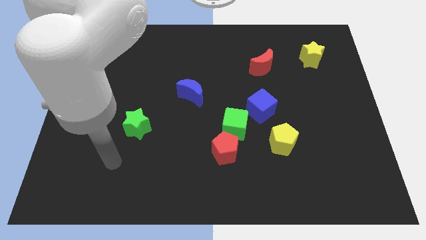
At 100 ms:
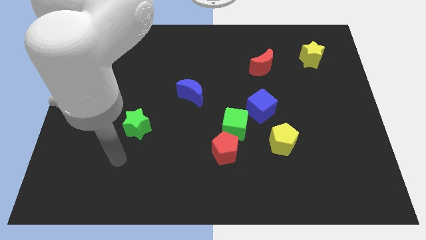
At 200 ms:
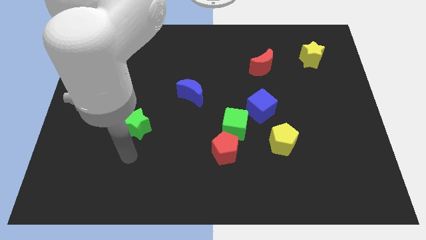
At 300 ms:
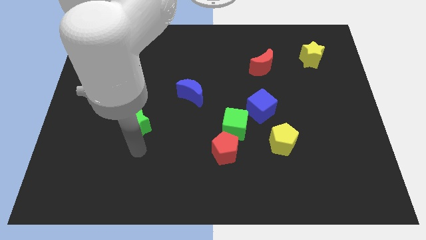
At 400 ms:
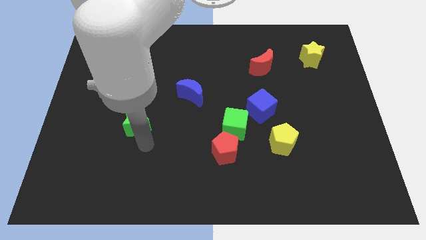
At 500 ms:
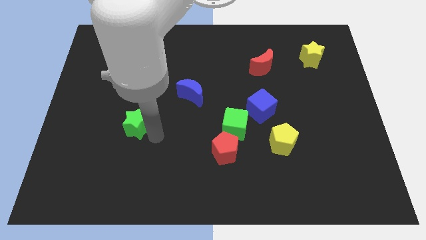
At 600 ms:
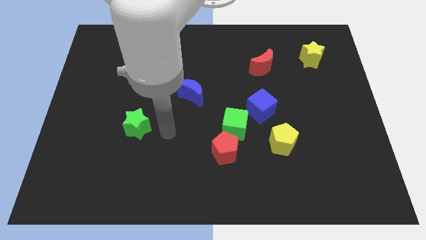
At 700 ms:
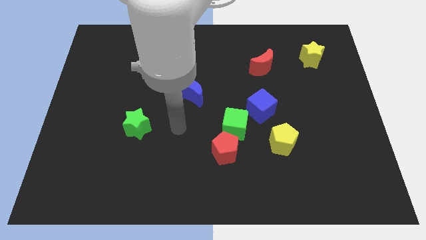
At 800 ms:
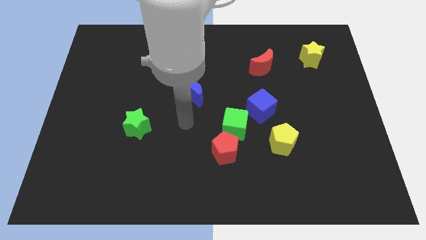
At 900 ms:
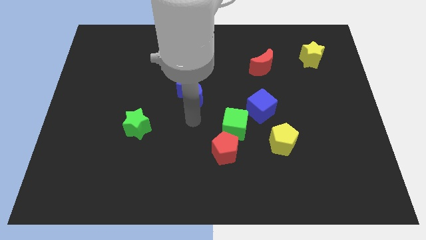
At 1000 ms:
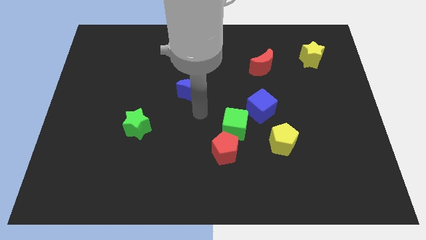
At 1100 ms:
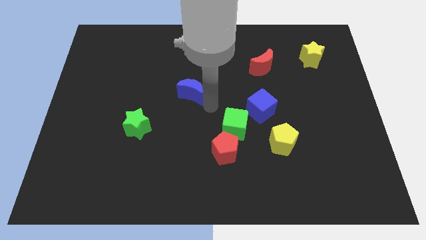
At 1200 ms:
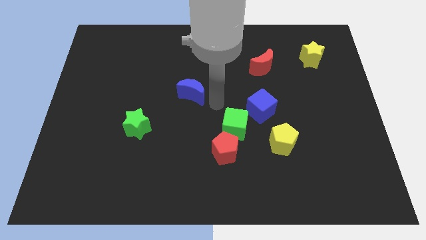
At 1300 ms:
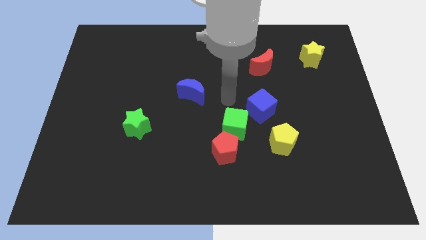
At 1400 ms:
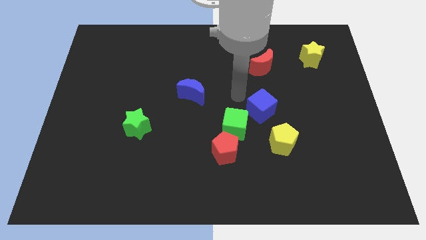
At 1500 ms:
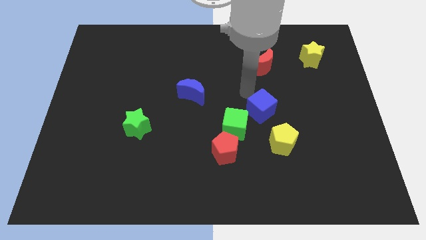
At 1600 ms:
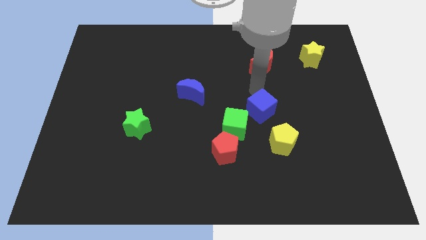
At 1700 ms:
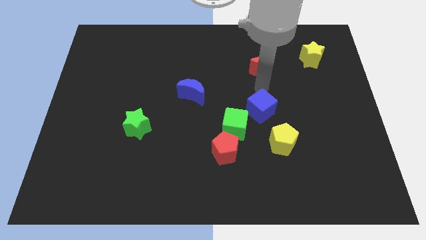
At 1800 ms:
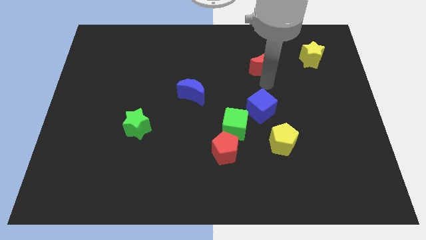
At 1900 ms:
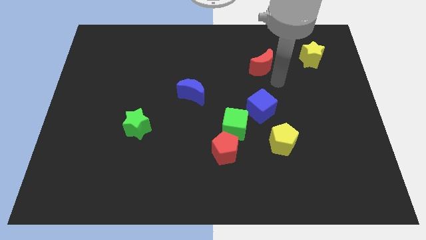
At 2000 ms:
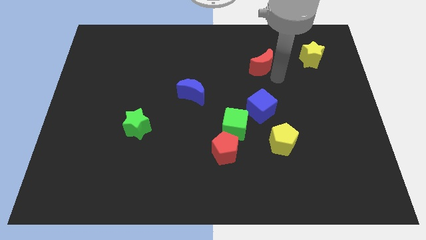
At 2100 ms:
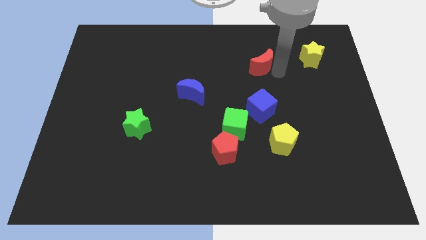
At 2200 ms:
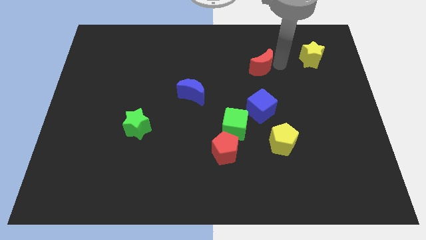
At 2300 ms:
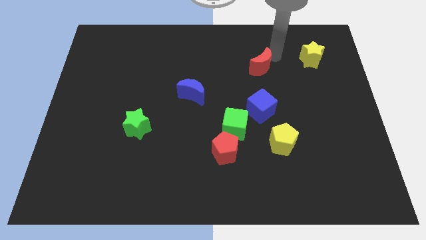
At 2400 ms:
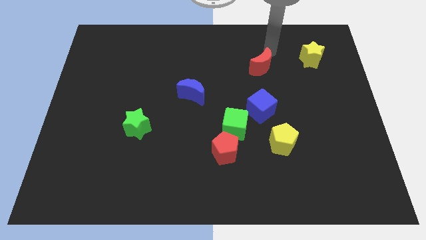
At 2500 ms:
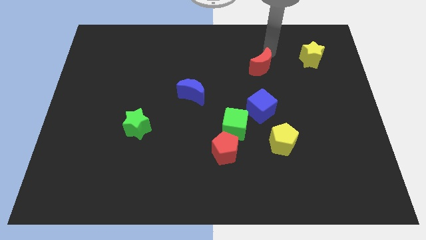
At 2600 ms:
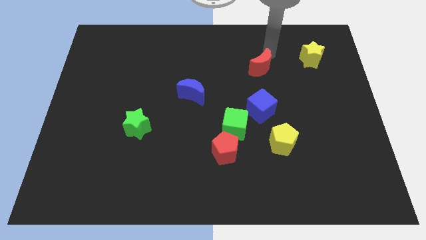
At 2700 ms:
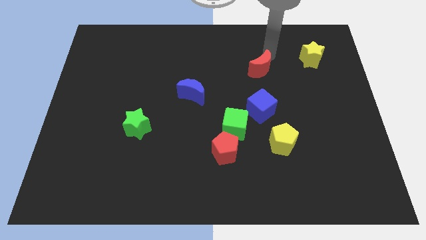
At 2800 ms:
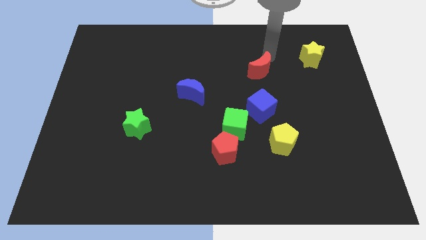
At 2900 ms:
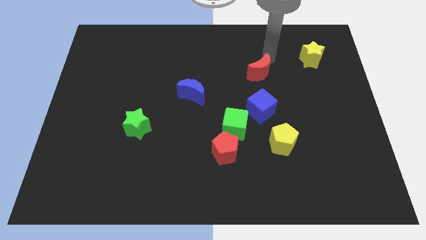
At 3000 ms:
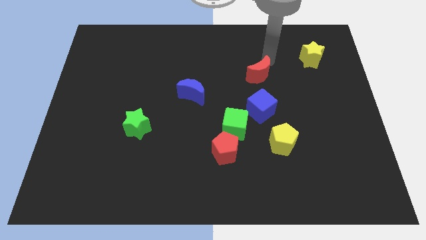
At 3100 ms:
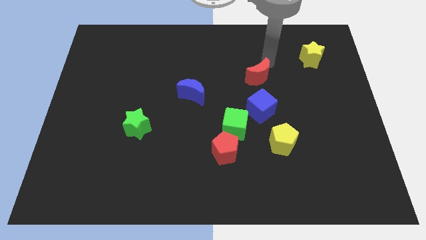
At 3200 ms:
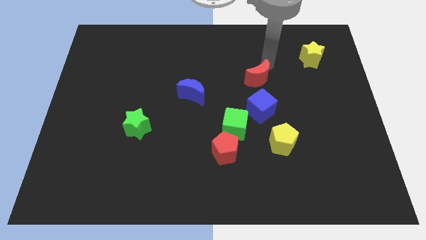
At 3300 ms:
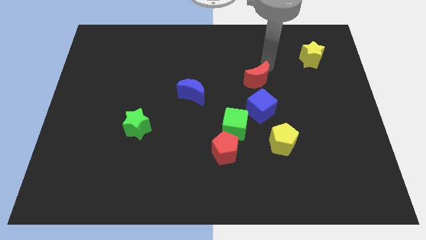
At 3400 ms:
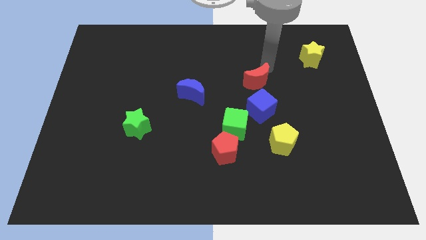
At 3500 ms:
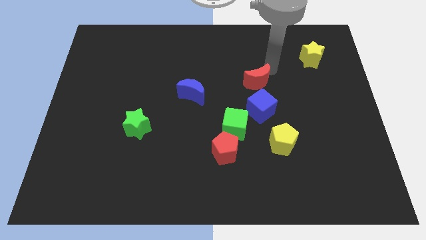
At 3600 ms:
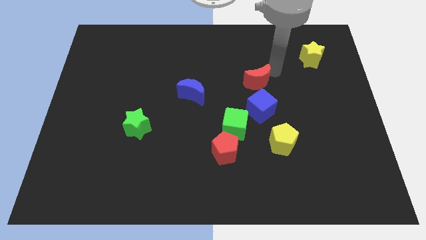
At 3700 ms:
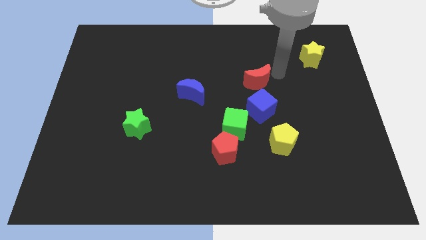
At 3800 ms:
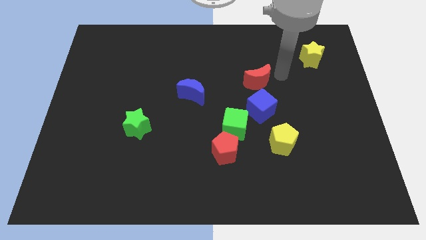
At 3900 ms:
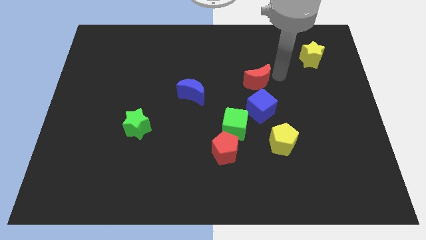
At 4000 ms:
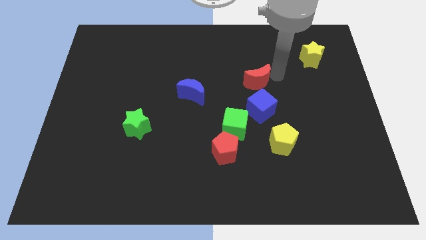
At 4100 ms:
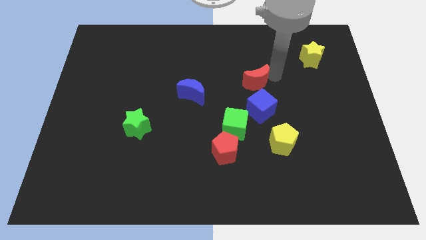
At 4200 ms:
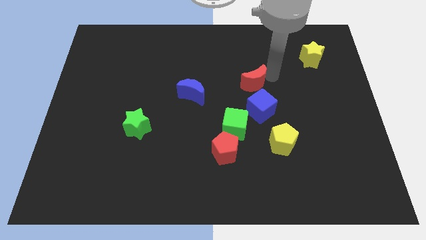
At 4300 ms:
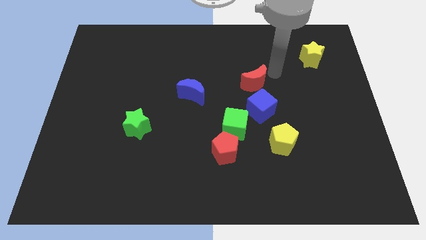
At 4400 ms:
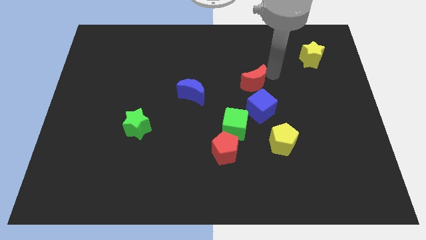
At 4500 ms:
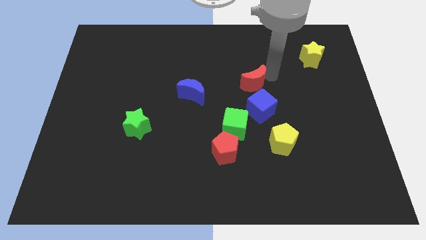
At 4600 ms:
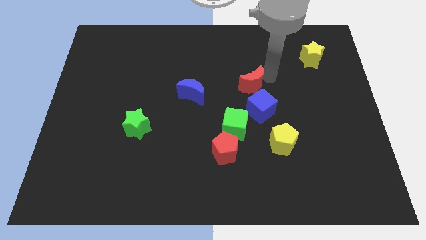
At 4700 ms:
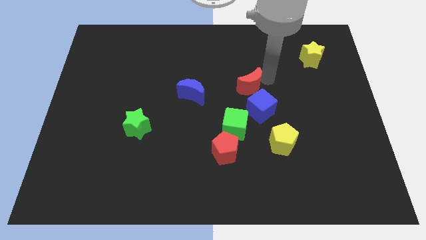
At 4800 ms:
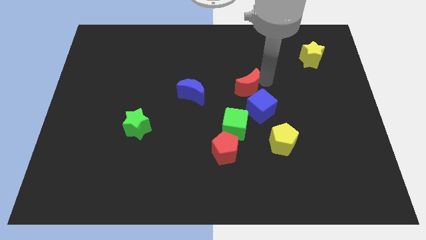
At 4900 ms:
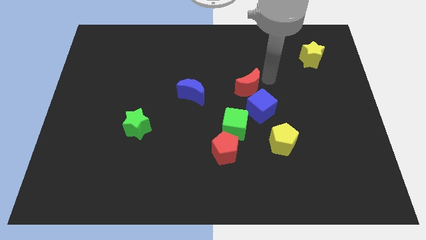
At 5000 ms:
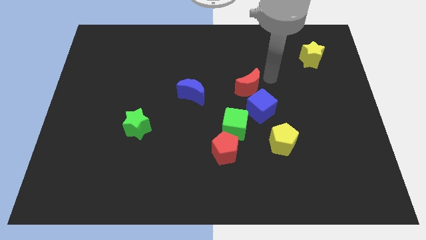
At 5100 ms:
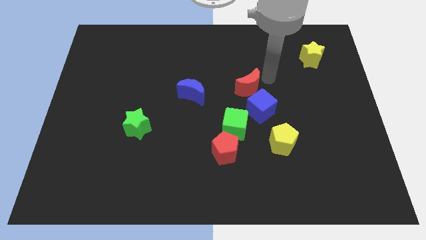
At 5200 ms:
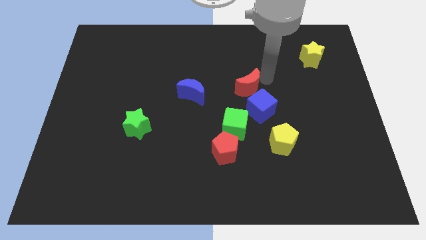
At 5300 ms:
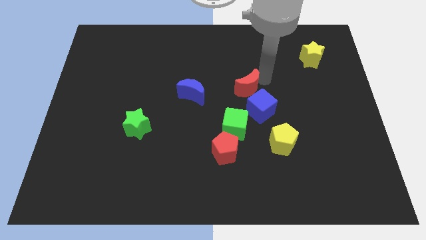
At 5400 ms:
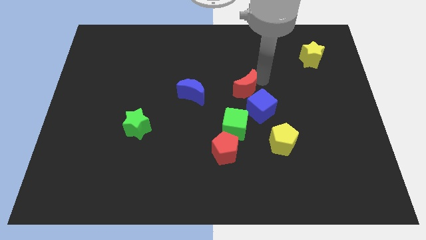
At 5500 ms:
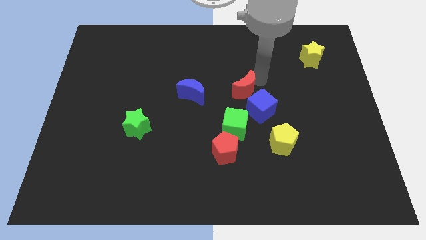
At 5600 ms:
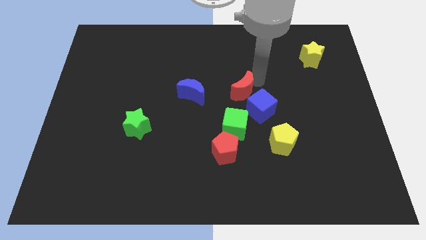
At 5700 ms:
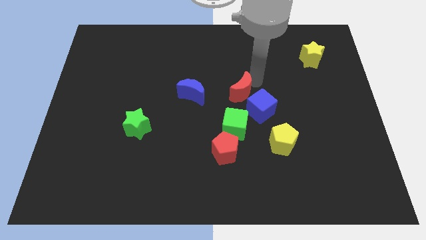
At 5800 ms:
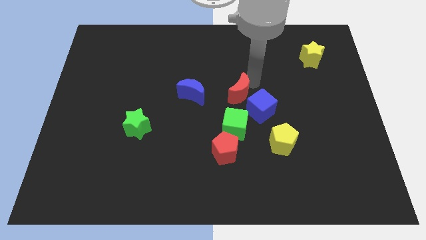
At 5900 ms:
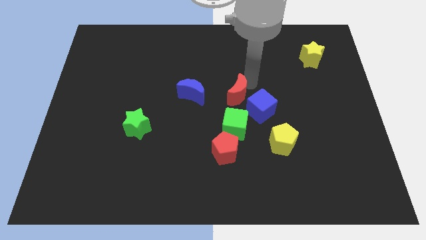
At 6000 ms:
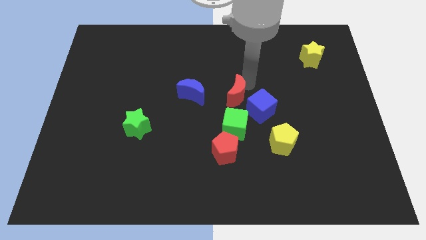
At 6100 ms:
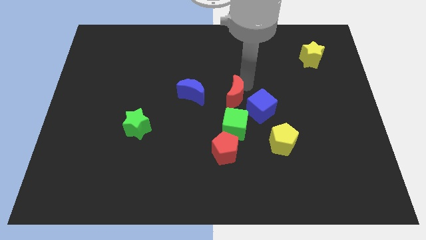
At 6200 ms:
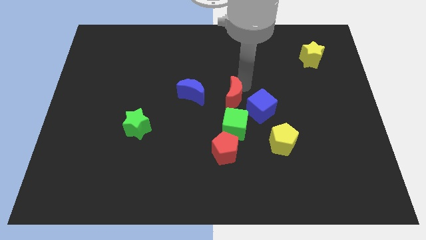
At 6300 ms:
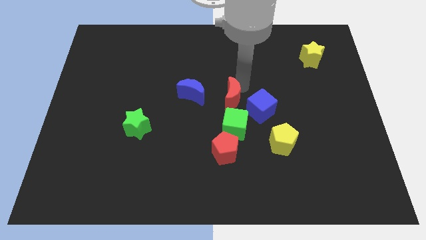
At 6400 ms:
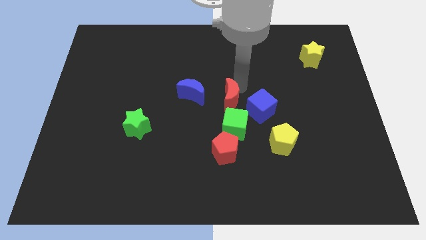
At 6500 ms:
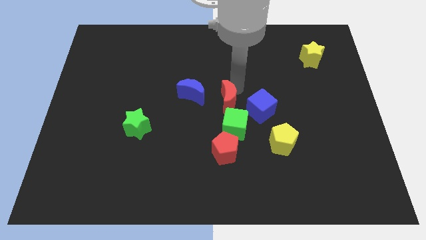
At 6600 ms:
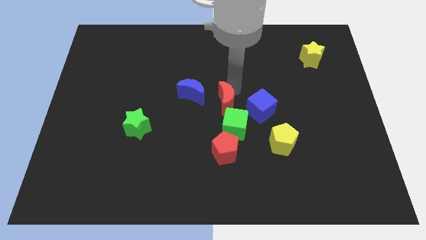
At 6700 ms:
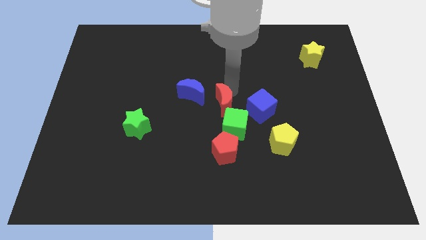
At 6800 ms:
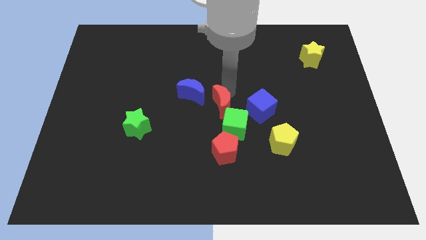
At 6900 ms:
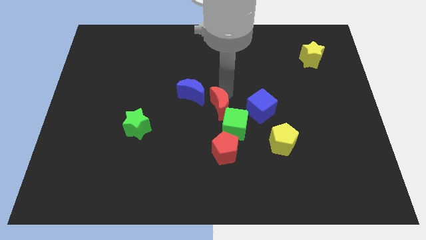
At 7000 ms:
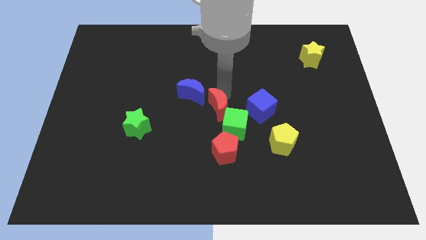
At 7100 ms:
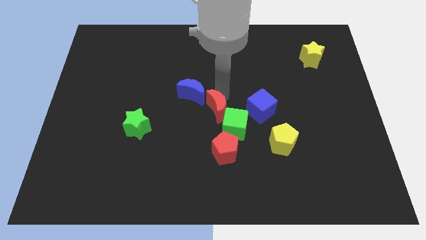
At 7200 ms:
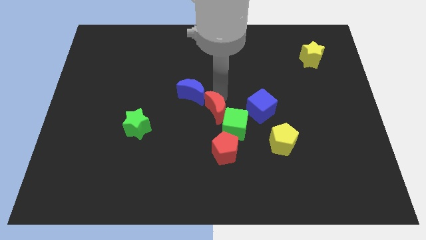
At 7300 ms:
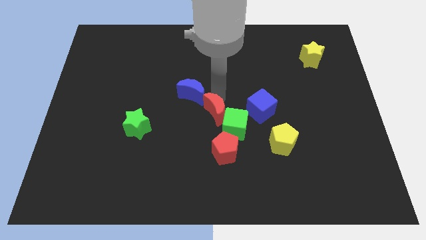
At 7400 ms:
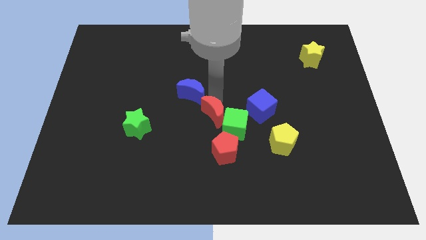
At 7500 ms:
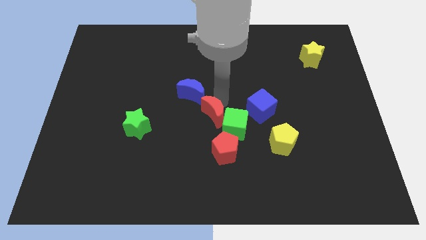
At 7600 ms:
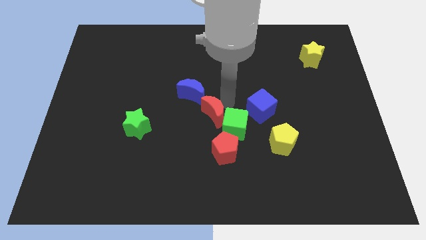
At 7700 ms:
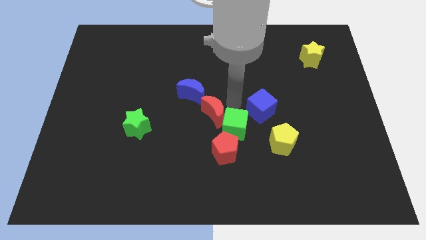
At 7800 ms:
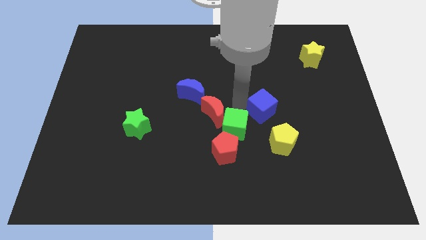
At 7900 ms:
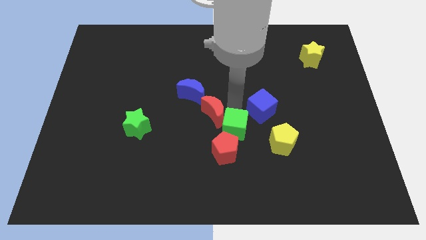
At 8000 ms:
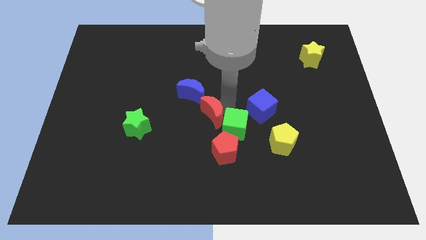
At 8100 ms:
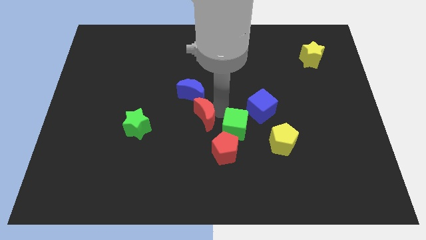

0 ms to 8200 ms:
push the red moon down and left diagonally
